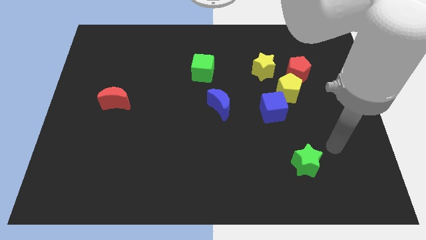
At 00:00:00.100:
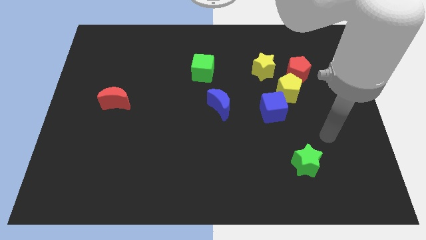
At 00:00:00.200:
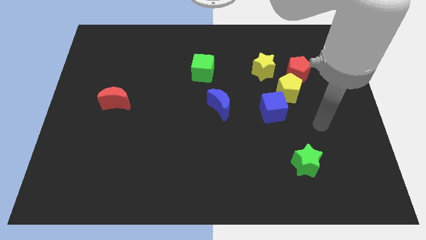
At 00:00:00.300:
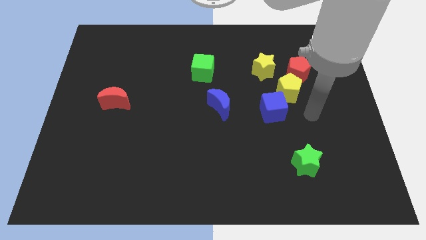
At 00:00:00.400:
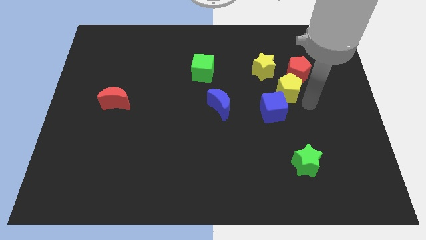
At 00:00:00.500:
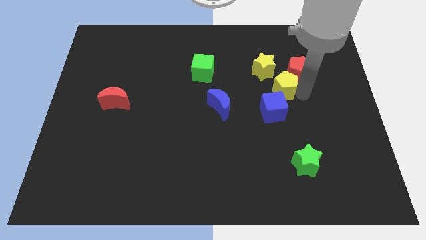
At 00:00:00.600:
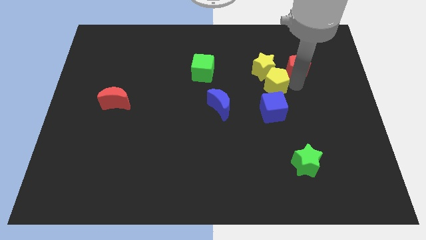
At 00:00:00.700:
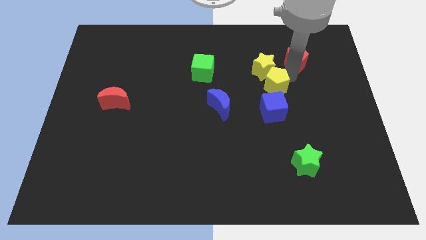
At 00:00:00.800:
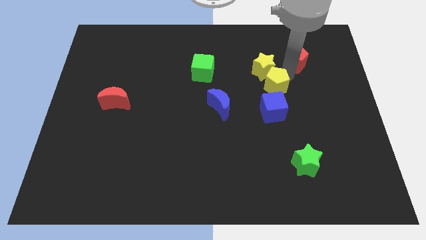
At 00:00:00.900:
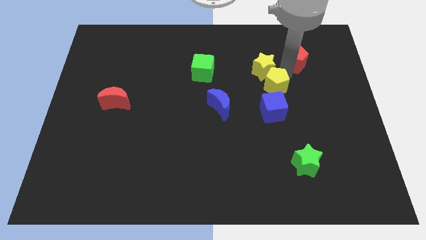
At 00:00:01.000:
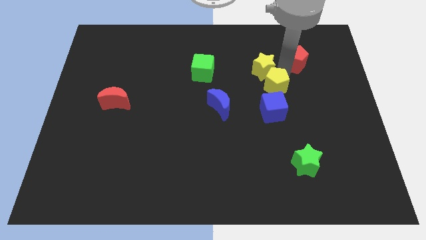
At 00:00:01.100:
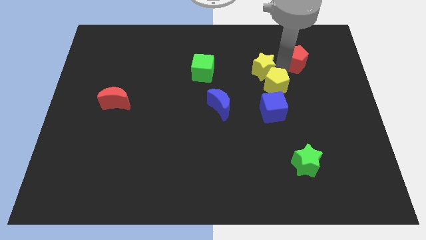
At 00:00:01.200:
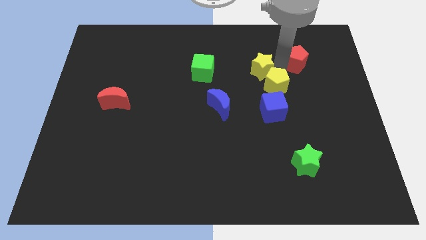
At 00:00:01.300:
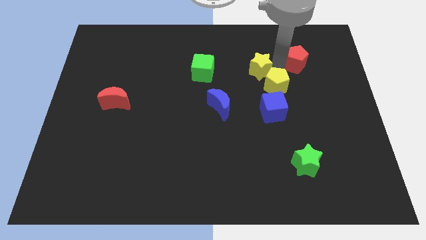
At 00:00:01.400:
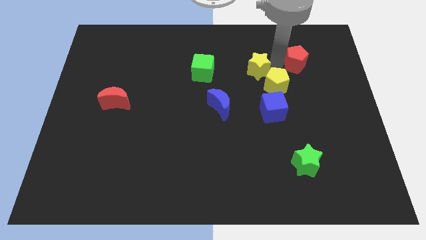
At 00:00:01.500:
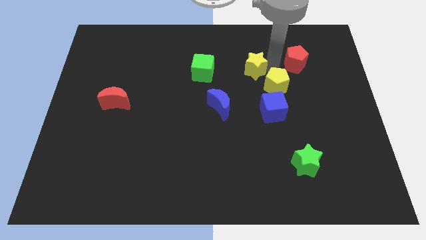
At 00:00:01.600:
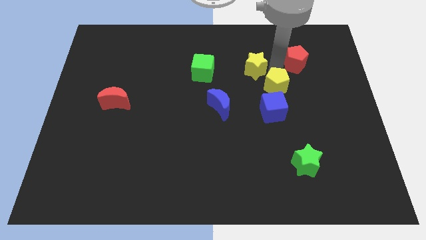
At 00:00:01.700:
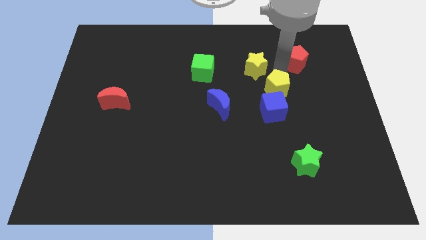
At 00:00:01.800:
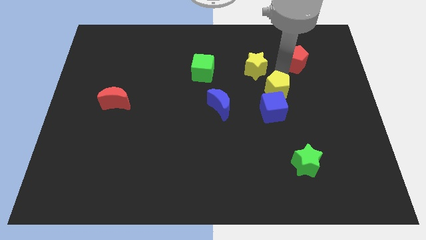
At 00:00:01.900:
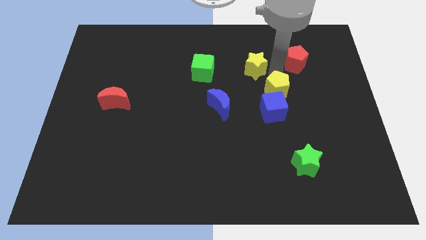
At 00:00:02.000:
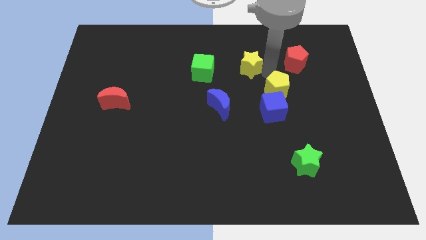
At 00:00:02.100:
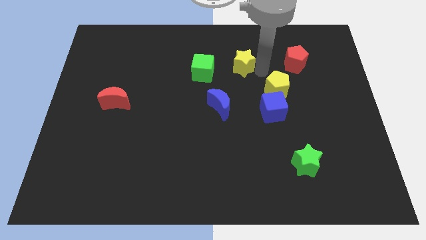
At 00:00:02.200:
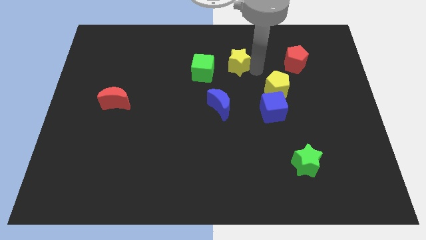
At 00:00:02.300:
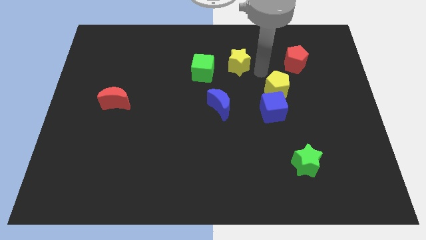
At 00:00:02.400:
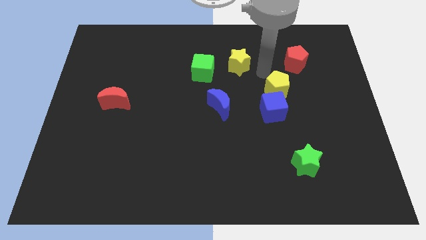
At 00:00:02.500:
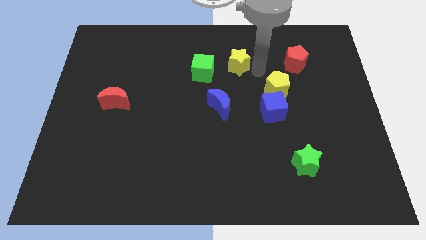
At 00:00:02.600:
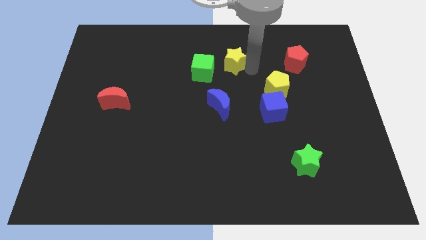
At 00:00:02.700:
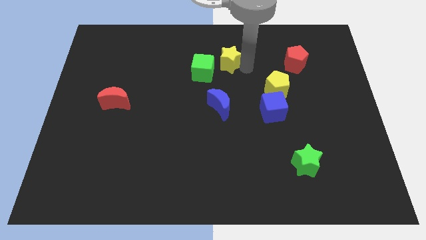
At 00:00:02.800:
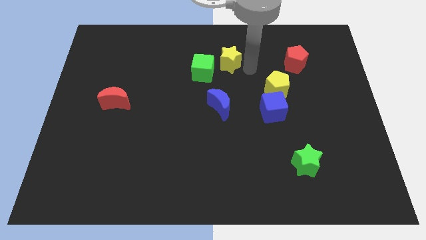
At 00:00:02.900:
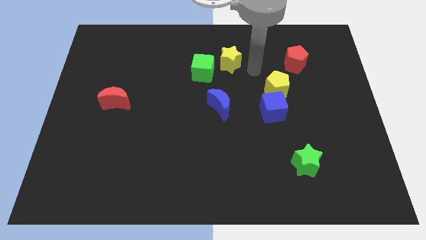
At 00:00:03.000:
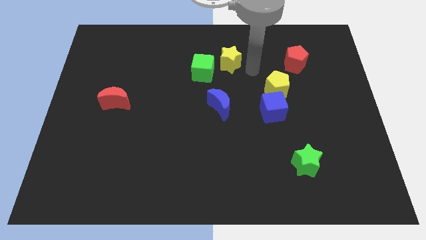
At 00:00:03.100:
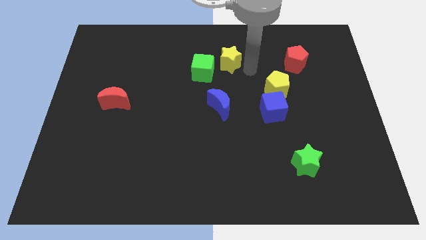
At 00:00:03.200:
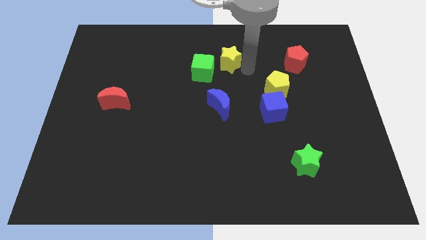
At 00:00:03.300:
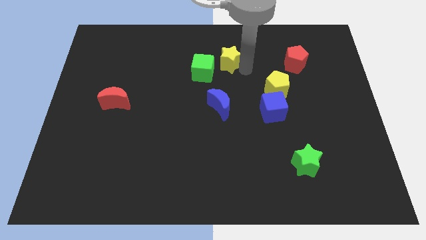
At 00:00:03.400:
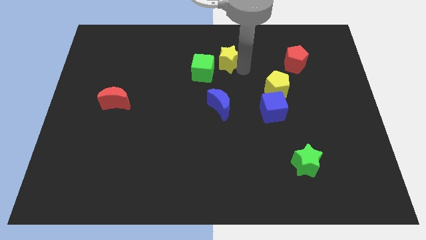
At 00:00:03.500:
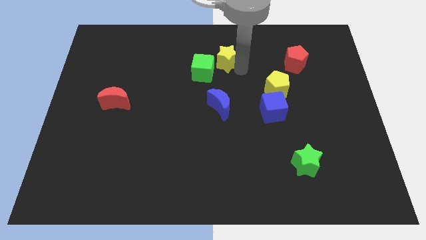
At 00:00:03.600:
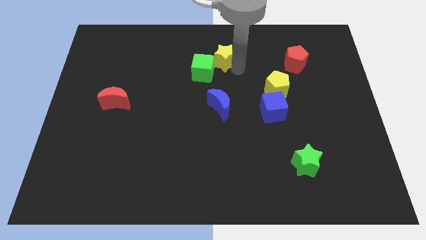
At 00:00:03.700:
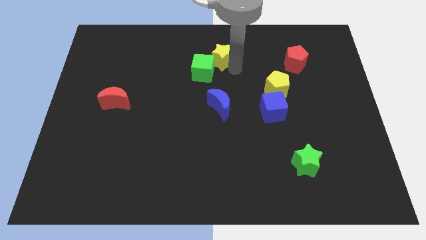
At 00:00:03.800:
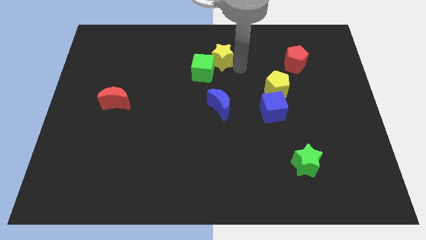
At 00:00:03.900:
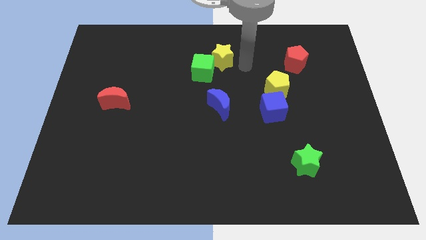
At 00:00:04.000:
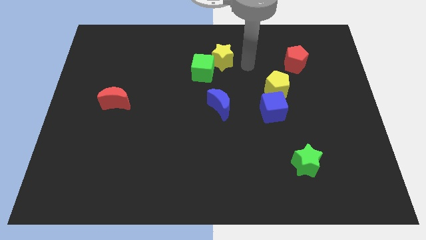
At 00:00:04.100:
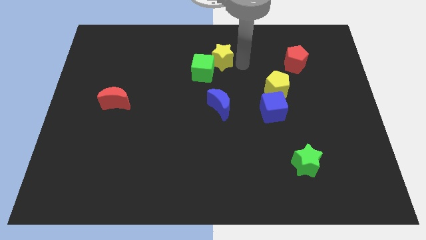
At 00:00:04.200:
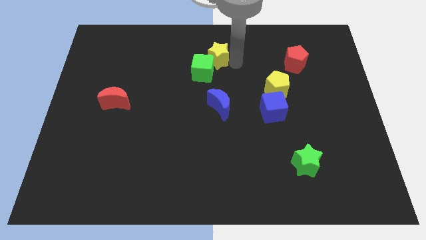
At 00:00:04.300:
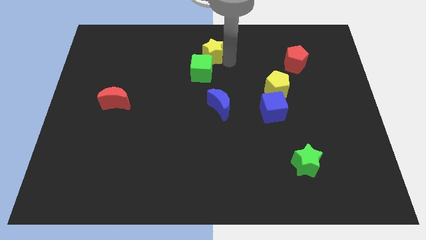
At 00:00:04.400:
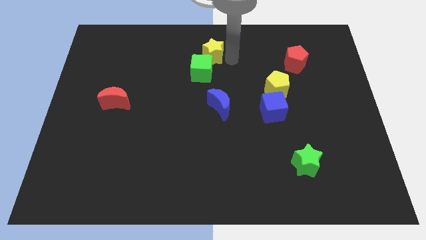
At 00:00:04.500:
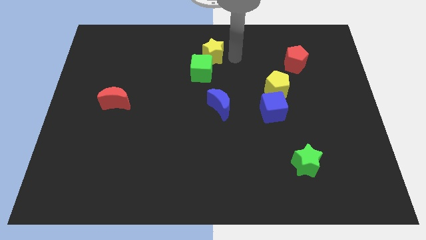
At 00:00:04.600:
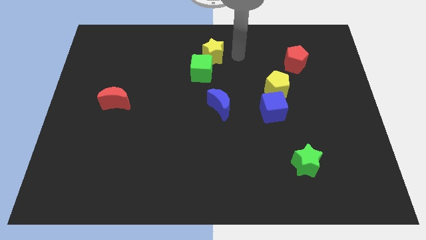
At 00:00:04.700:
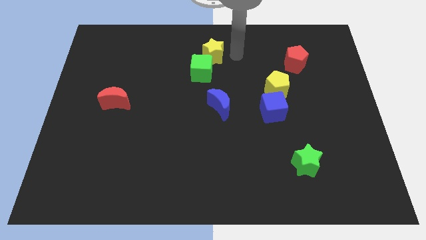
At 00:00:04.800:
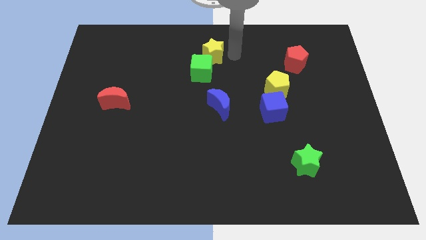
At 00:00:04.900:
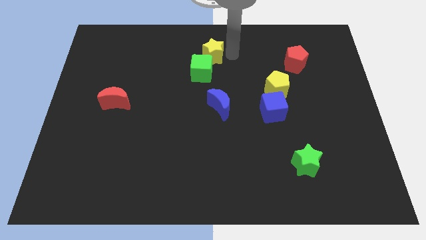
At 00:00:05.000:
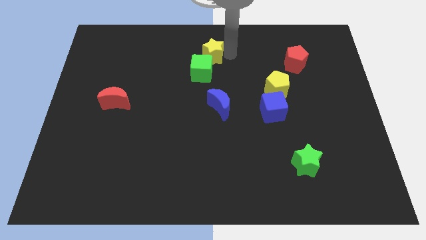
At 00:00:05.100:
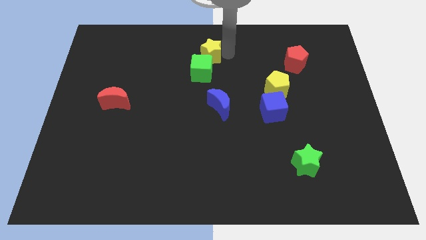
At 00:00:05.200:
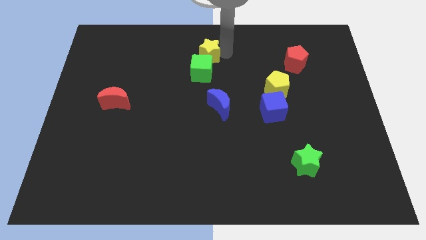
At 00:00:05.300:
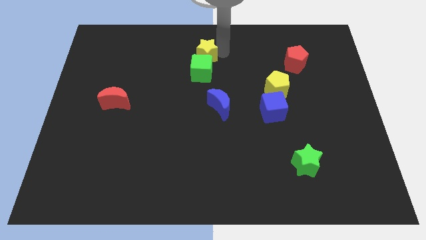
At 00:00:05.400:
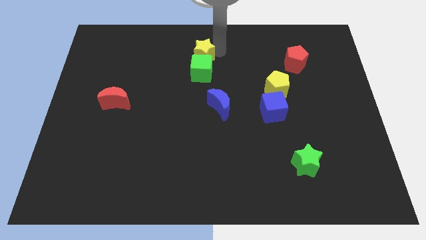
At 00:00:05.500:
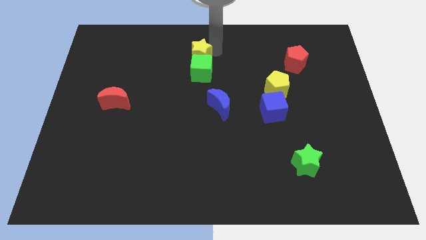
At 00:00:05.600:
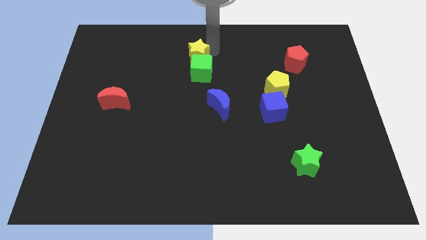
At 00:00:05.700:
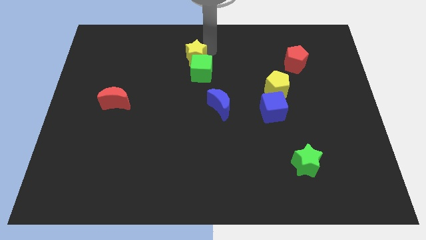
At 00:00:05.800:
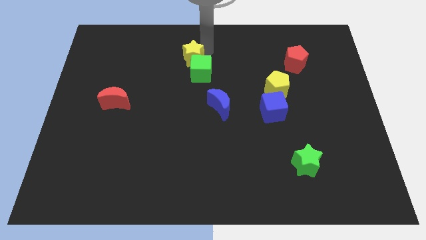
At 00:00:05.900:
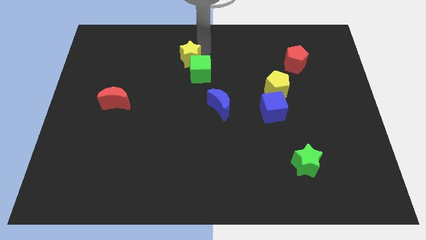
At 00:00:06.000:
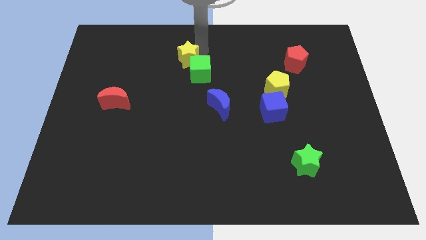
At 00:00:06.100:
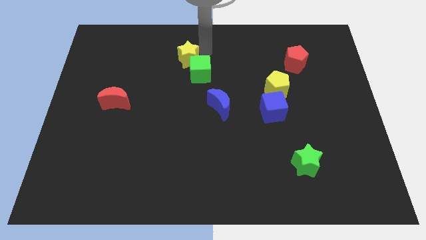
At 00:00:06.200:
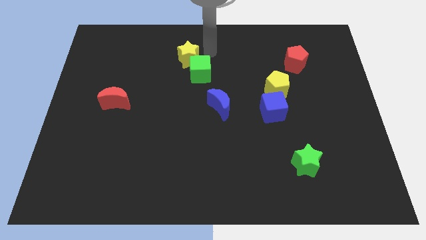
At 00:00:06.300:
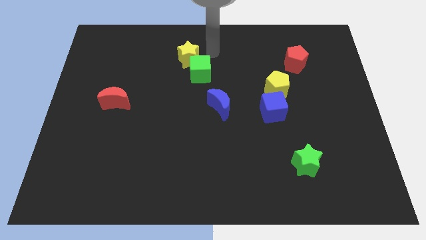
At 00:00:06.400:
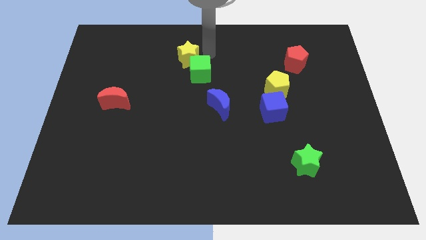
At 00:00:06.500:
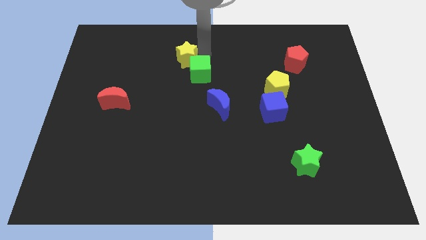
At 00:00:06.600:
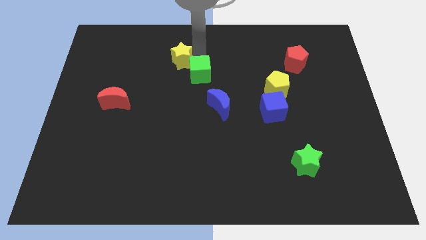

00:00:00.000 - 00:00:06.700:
slide the yellow star left

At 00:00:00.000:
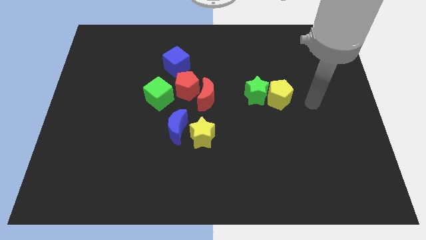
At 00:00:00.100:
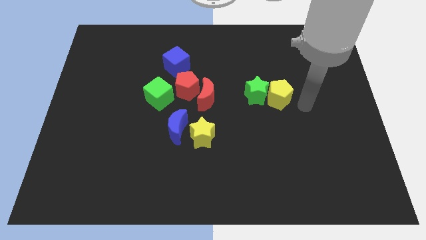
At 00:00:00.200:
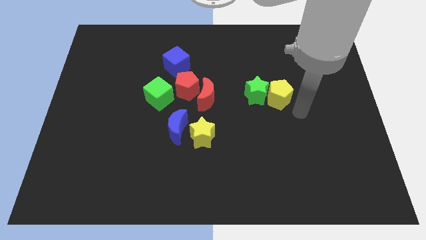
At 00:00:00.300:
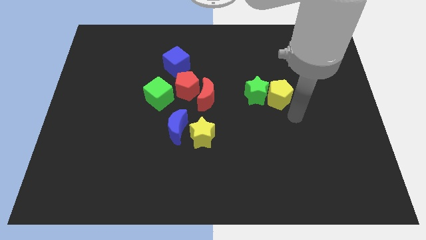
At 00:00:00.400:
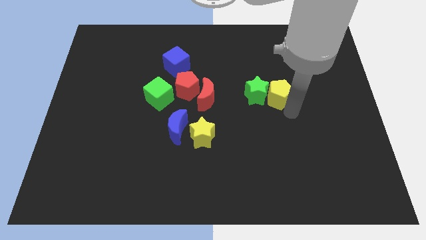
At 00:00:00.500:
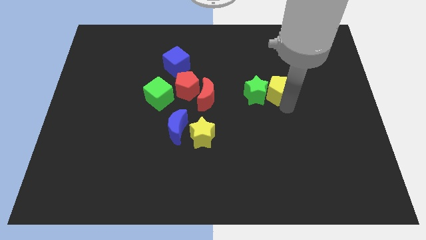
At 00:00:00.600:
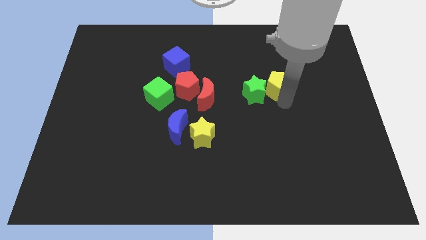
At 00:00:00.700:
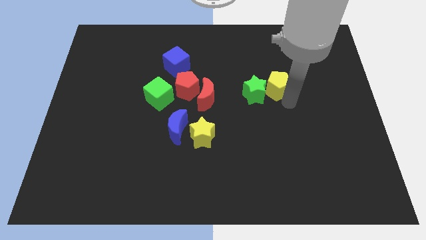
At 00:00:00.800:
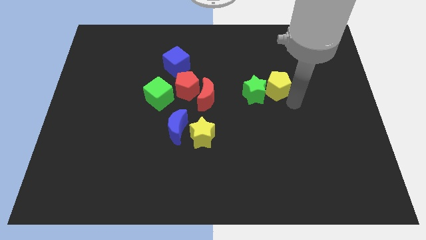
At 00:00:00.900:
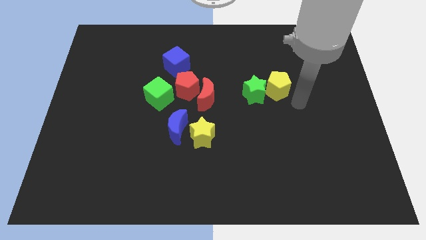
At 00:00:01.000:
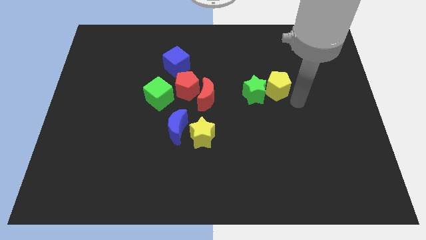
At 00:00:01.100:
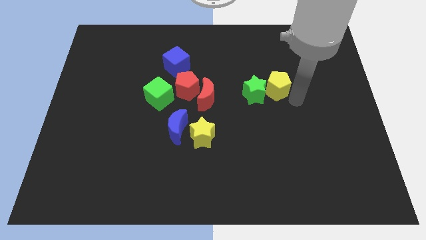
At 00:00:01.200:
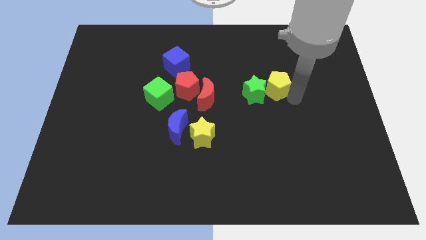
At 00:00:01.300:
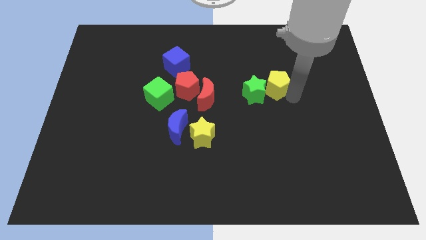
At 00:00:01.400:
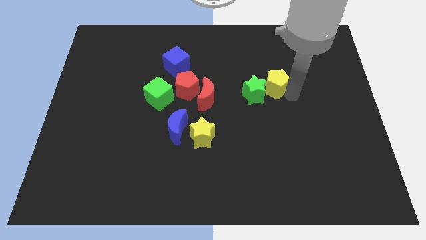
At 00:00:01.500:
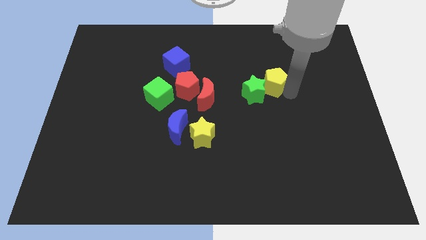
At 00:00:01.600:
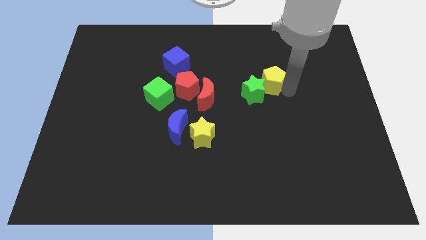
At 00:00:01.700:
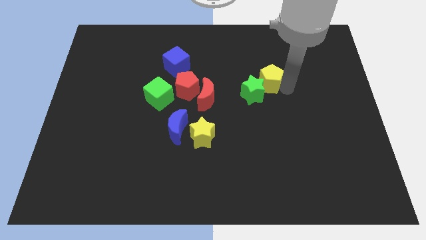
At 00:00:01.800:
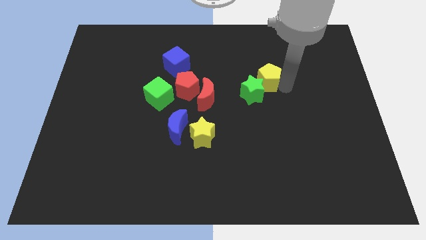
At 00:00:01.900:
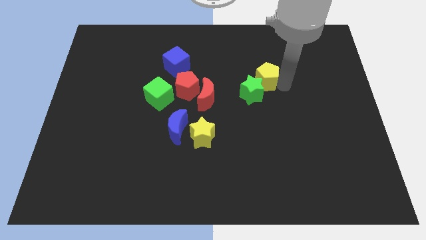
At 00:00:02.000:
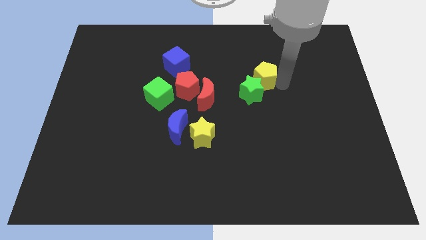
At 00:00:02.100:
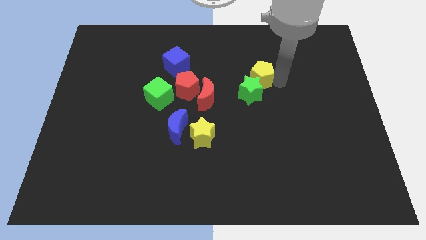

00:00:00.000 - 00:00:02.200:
slide the yellow pentagon a little upwards and left
